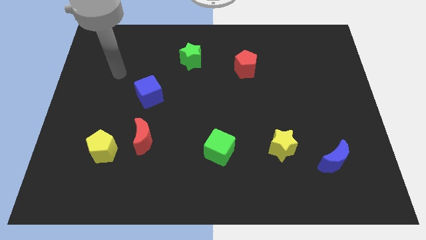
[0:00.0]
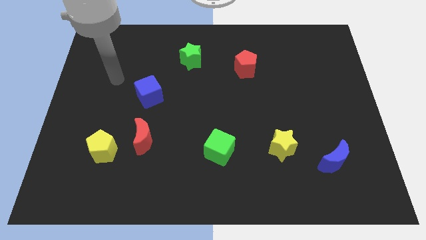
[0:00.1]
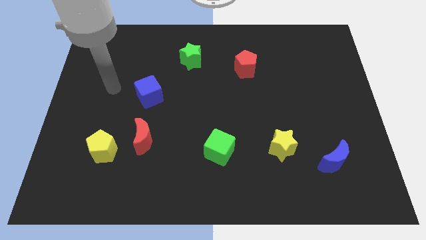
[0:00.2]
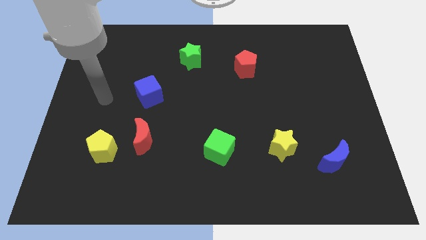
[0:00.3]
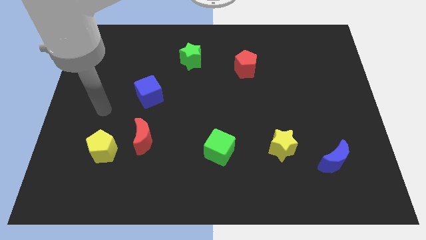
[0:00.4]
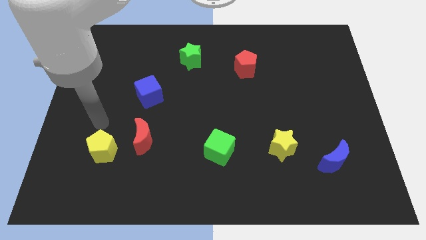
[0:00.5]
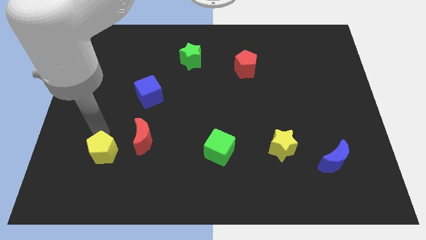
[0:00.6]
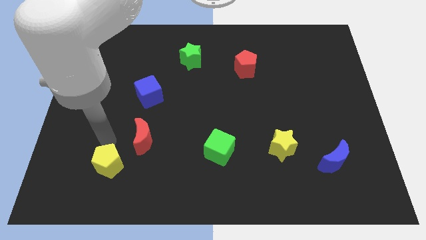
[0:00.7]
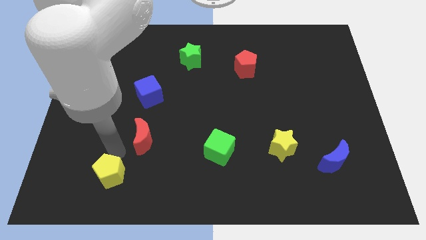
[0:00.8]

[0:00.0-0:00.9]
separate the red moon from the yellow pentagon

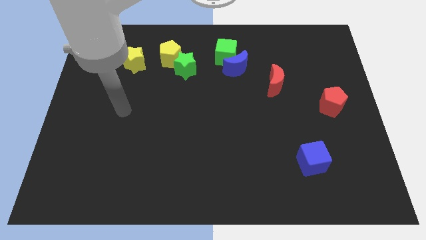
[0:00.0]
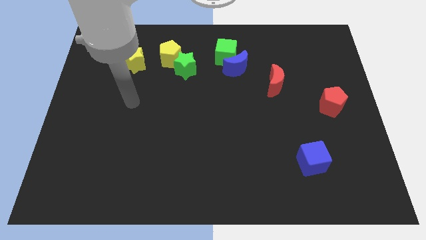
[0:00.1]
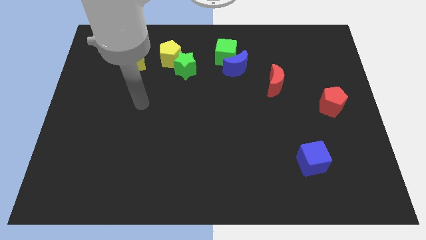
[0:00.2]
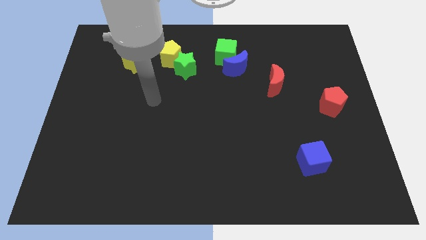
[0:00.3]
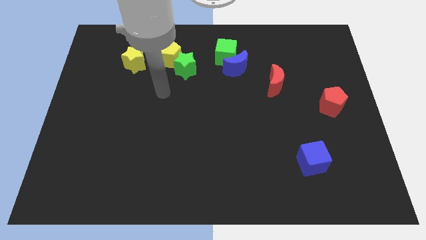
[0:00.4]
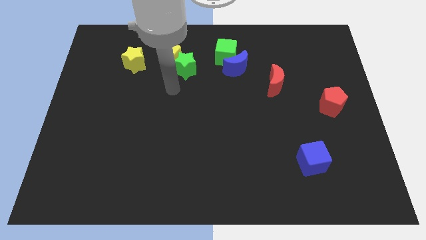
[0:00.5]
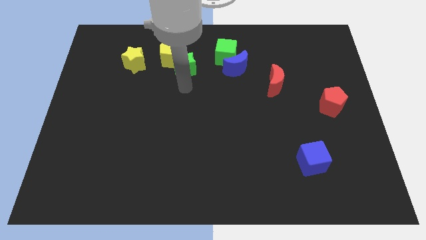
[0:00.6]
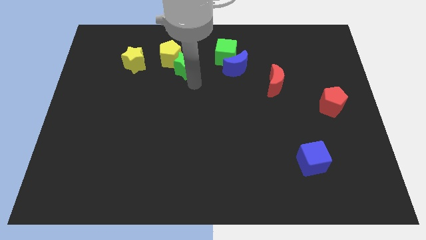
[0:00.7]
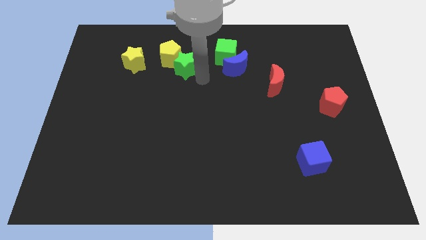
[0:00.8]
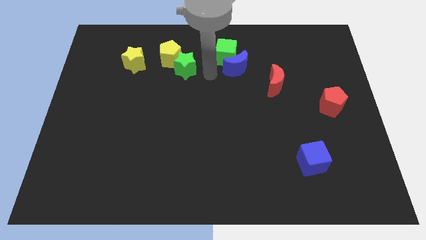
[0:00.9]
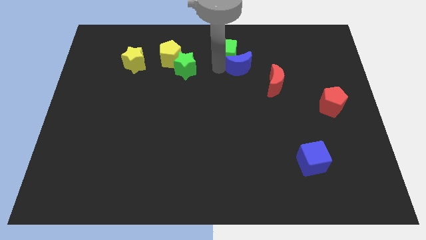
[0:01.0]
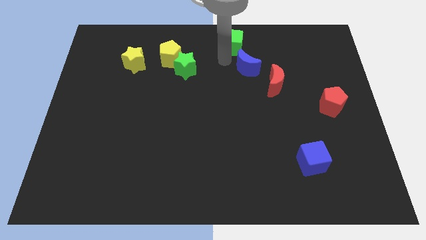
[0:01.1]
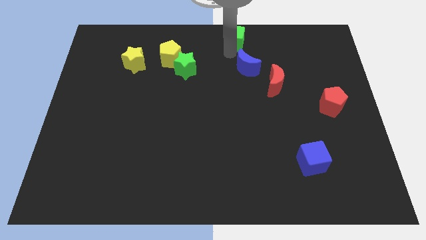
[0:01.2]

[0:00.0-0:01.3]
separate the blue moon from the green cube

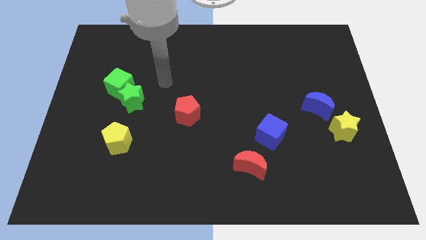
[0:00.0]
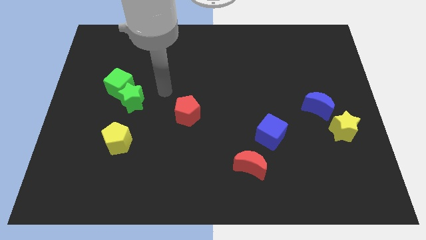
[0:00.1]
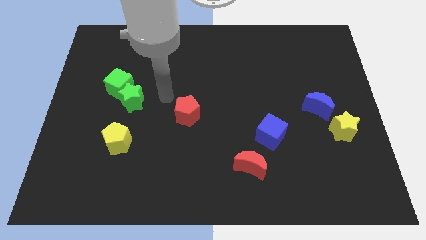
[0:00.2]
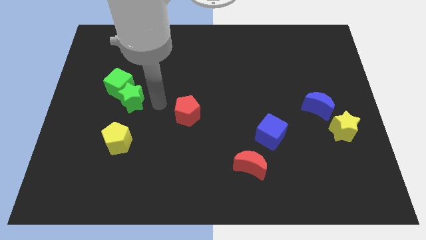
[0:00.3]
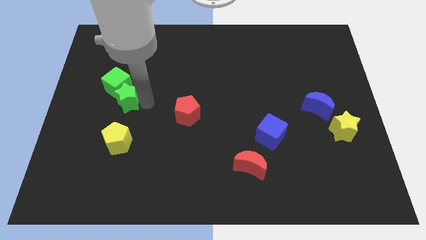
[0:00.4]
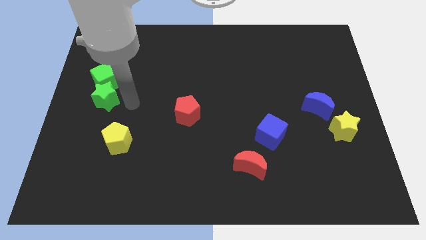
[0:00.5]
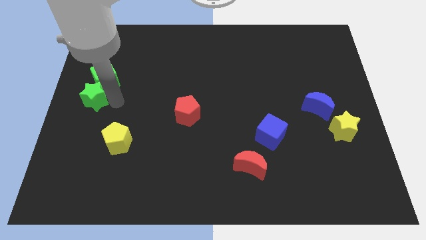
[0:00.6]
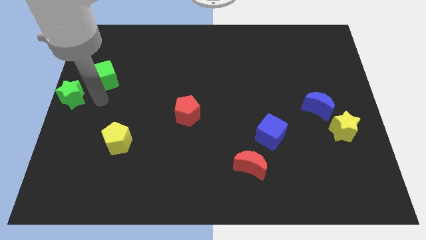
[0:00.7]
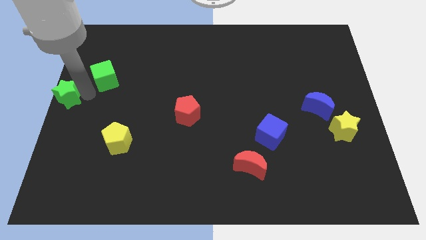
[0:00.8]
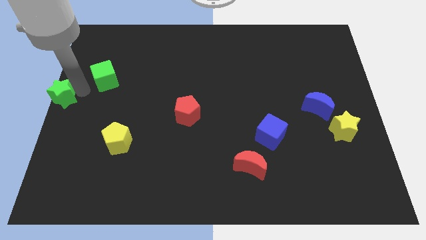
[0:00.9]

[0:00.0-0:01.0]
separate the green cube from the green star

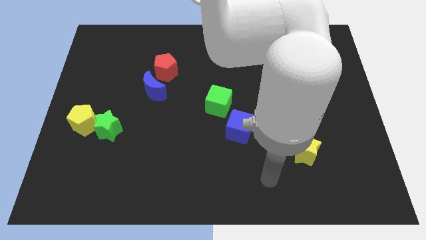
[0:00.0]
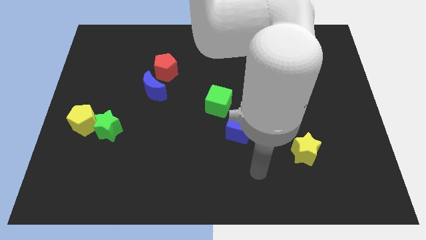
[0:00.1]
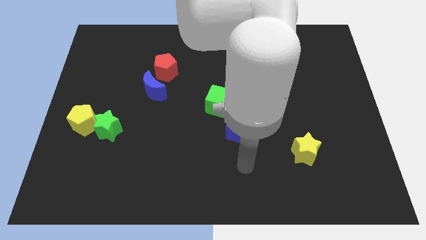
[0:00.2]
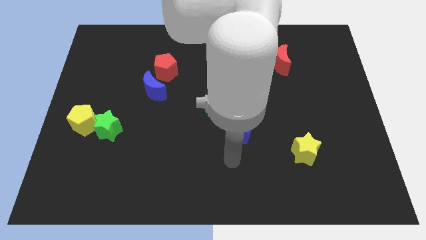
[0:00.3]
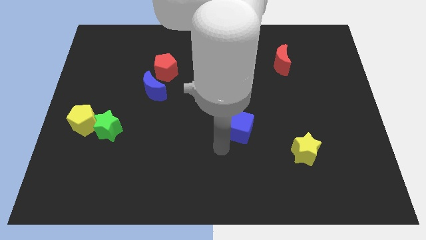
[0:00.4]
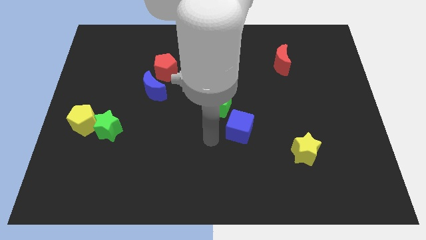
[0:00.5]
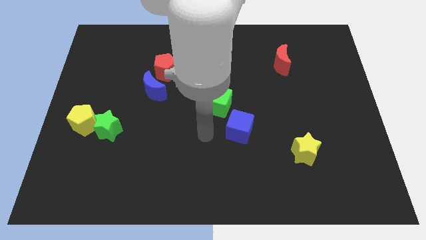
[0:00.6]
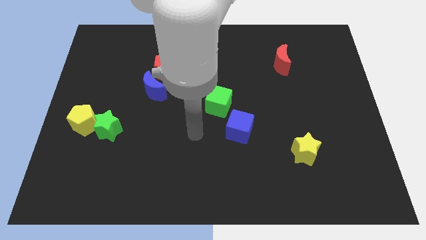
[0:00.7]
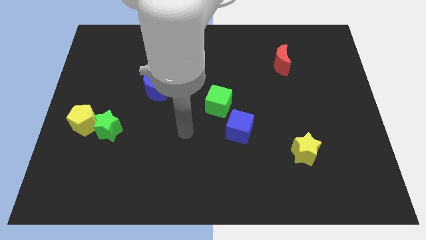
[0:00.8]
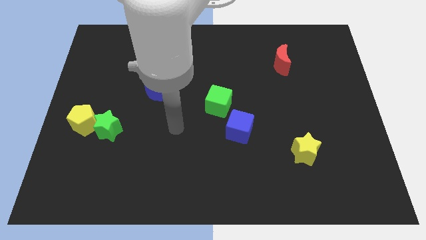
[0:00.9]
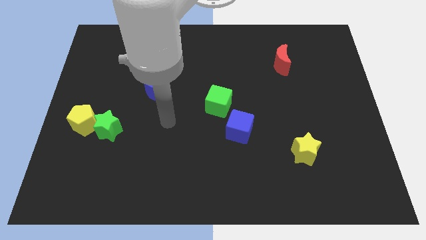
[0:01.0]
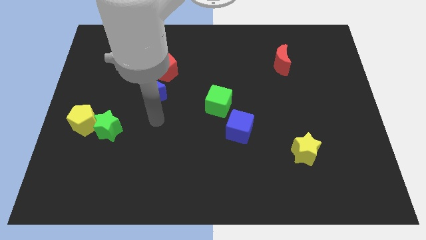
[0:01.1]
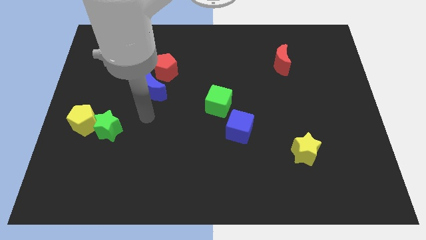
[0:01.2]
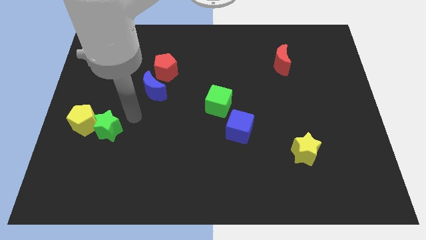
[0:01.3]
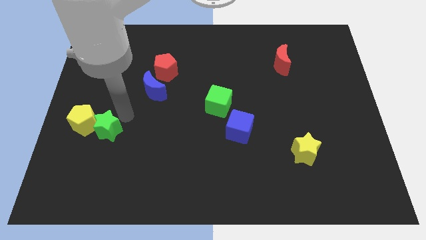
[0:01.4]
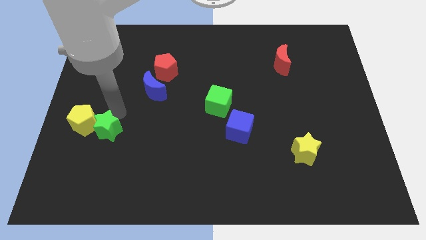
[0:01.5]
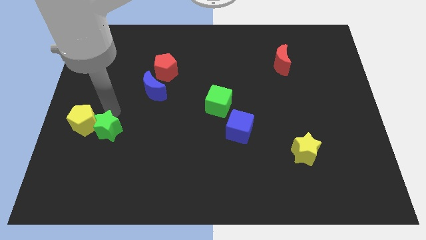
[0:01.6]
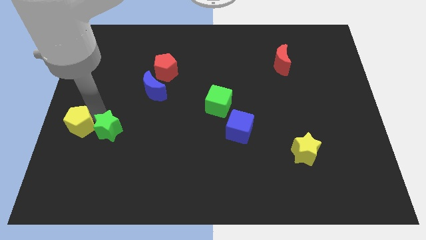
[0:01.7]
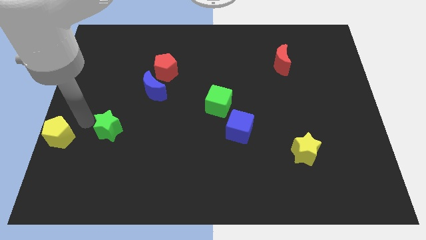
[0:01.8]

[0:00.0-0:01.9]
move the green star away from the yellow pentagon

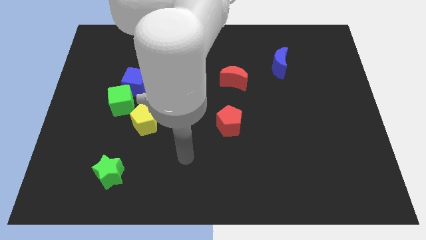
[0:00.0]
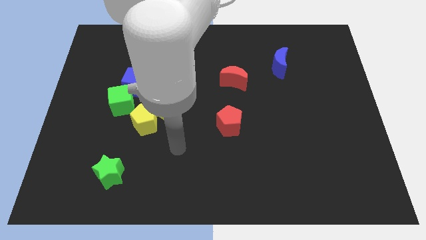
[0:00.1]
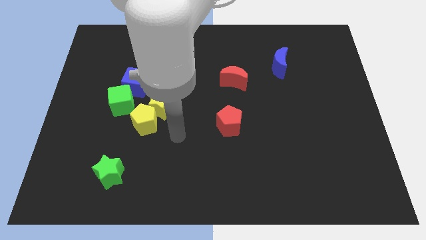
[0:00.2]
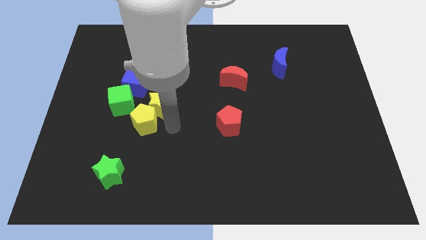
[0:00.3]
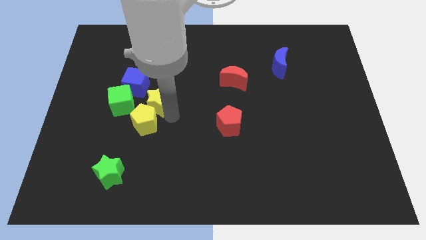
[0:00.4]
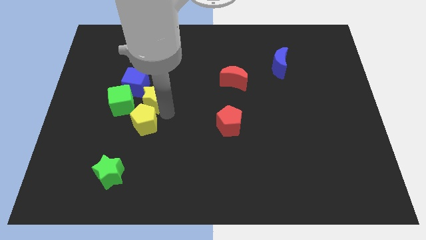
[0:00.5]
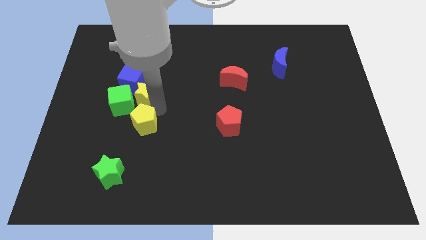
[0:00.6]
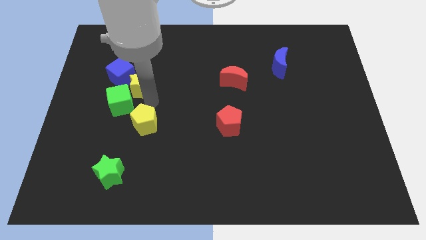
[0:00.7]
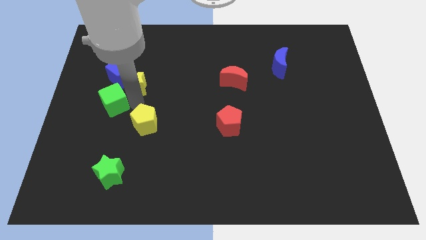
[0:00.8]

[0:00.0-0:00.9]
separate the yellow pentagon from the yellow star and green cube

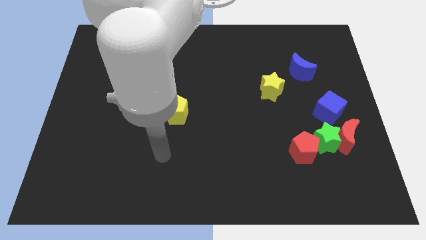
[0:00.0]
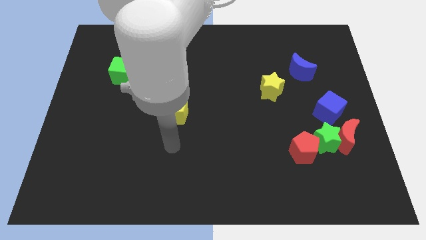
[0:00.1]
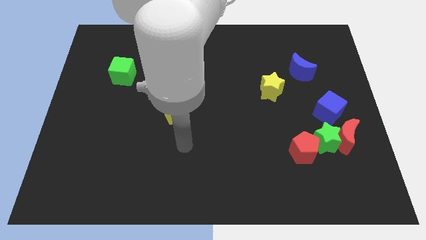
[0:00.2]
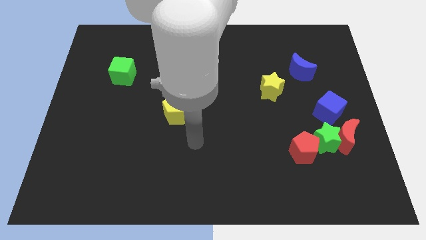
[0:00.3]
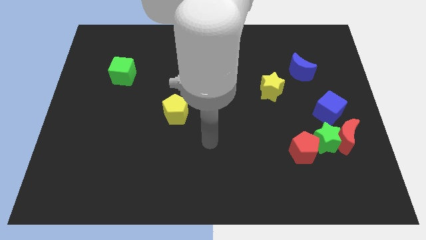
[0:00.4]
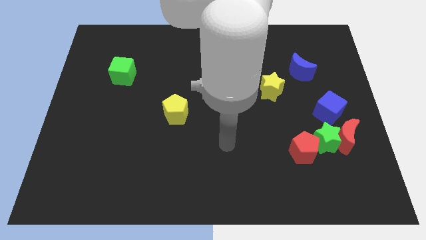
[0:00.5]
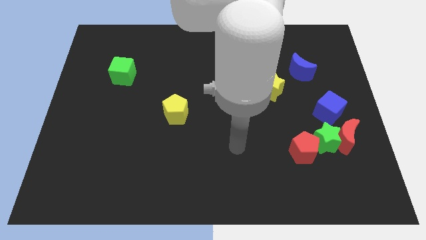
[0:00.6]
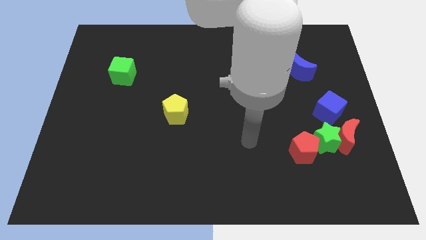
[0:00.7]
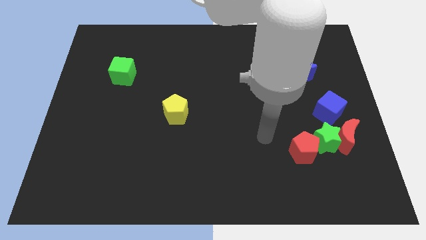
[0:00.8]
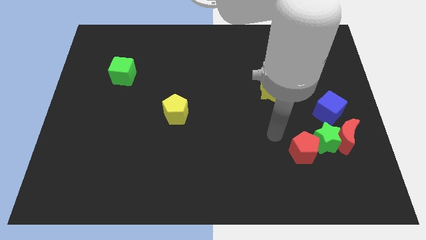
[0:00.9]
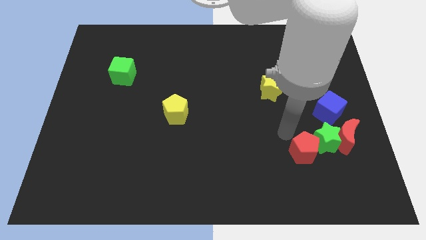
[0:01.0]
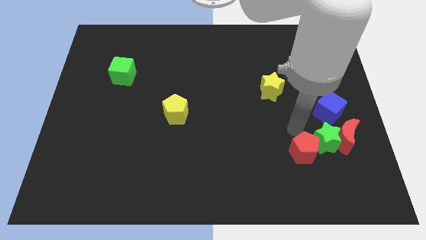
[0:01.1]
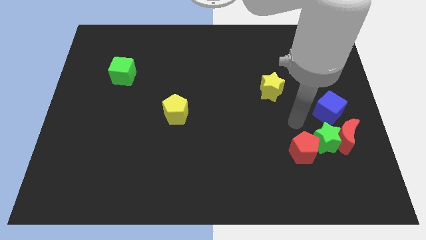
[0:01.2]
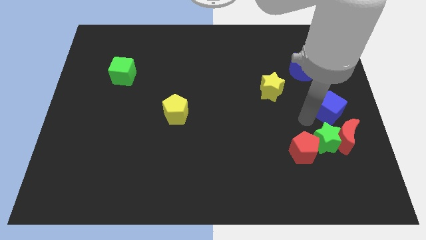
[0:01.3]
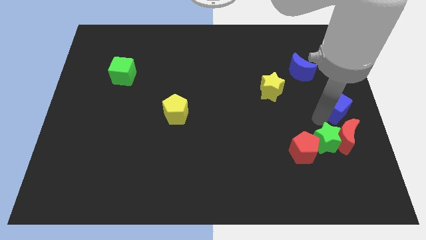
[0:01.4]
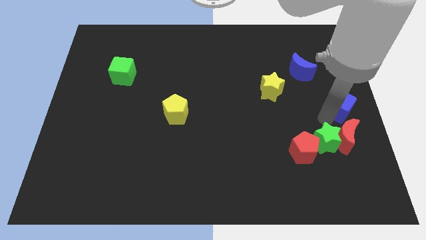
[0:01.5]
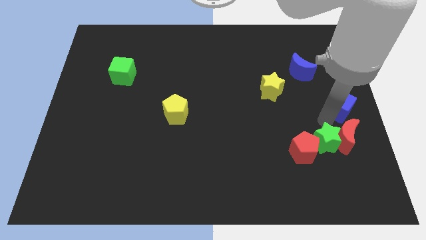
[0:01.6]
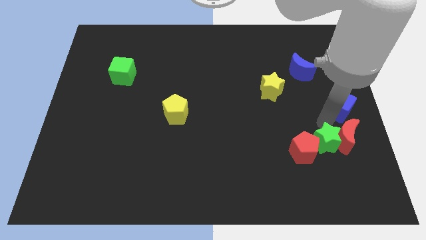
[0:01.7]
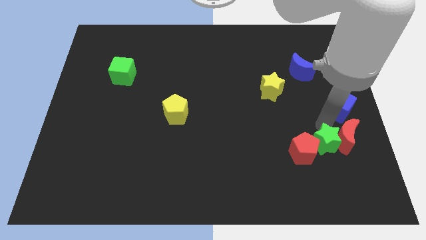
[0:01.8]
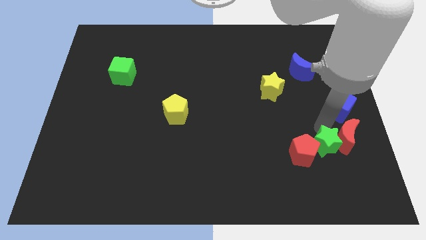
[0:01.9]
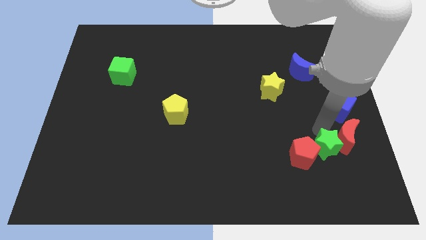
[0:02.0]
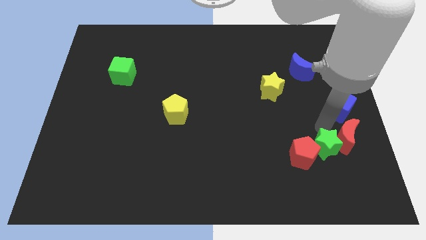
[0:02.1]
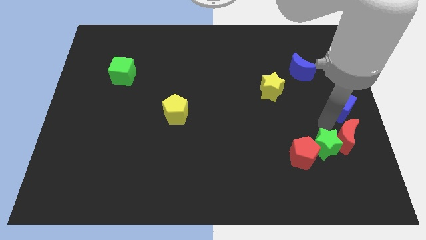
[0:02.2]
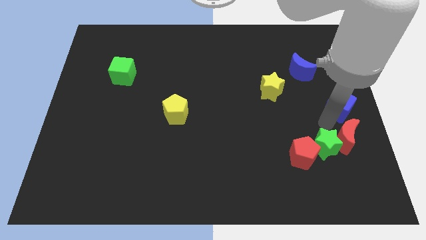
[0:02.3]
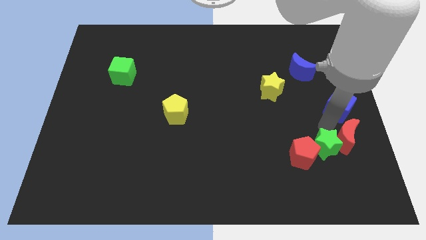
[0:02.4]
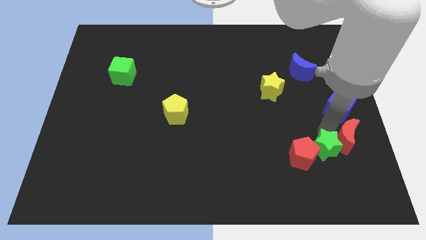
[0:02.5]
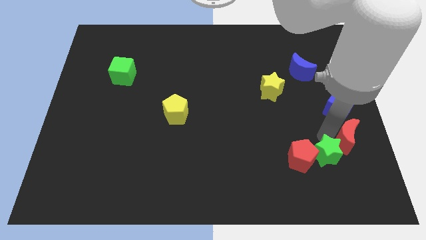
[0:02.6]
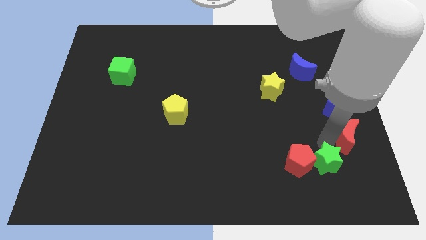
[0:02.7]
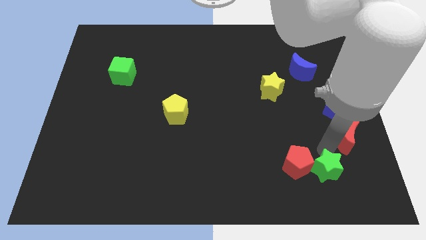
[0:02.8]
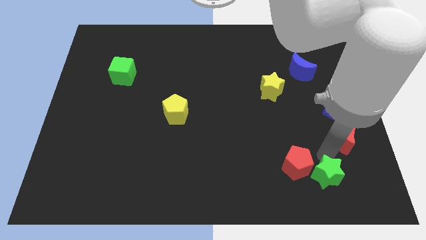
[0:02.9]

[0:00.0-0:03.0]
separate the green star from the red moon, red pentagon, and blue cube

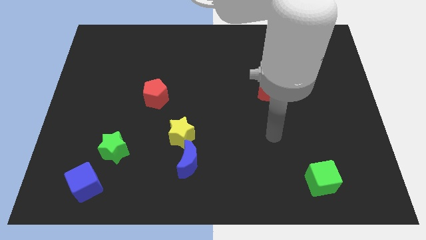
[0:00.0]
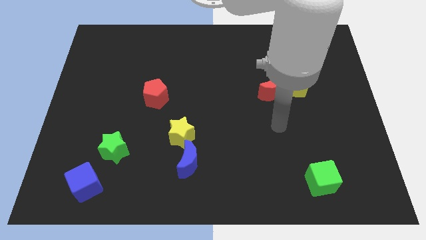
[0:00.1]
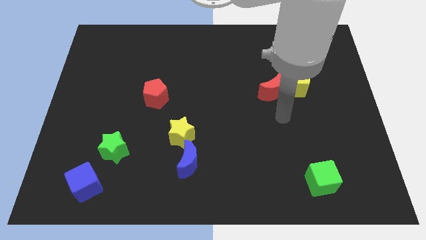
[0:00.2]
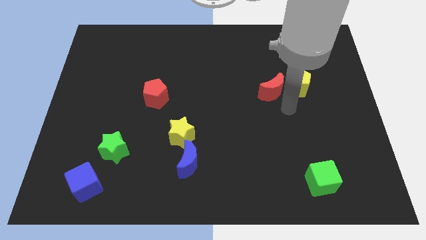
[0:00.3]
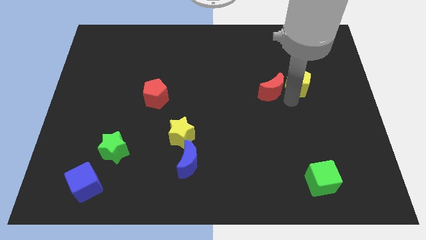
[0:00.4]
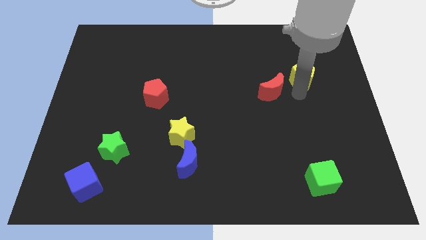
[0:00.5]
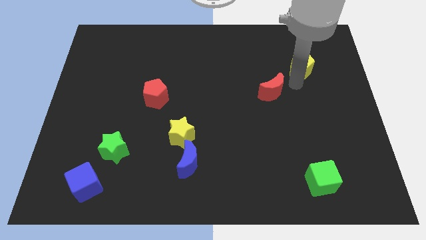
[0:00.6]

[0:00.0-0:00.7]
move the red moon away from the yellow pentagon
